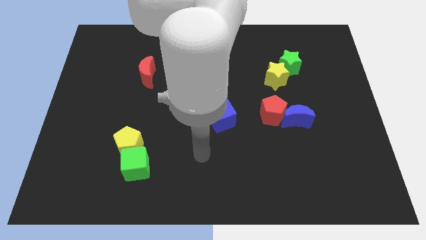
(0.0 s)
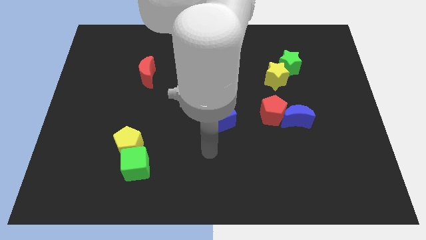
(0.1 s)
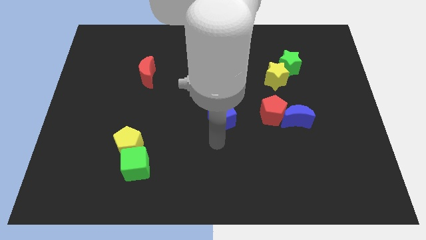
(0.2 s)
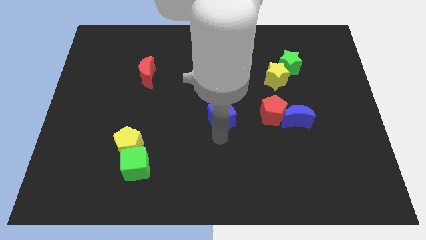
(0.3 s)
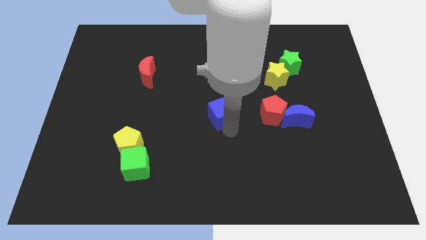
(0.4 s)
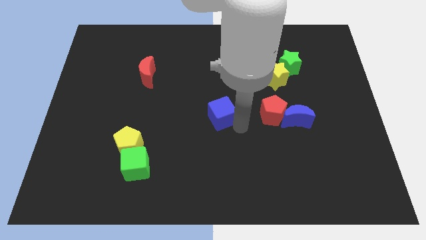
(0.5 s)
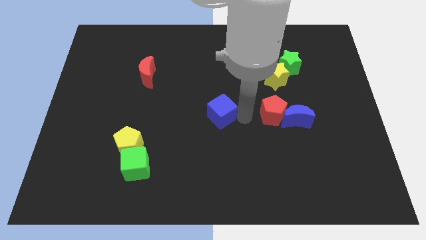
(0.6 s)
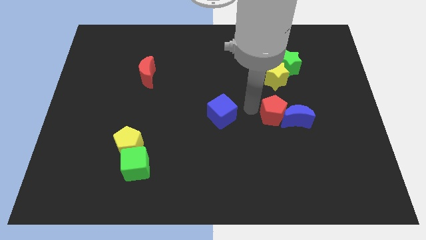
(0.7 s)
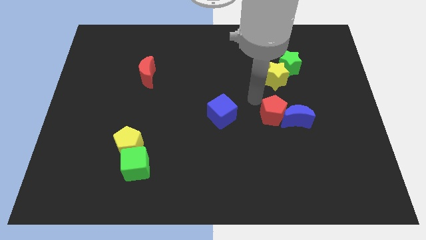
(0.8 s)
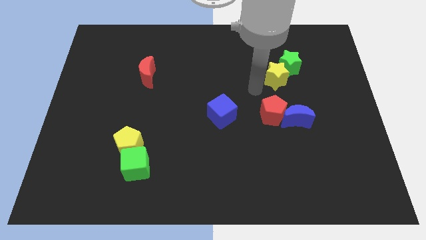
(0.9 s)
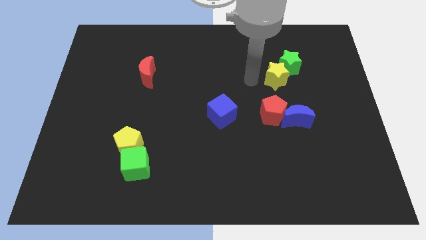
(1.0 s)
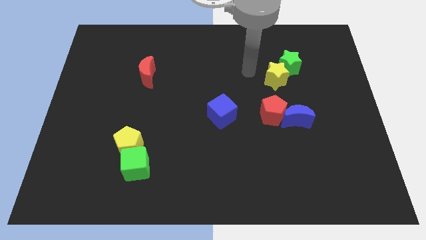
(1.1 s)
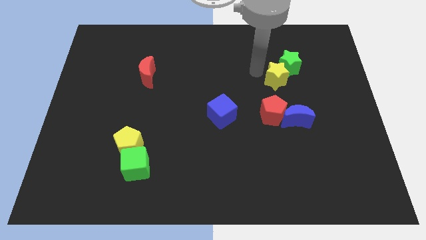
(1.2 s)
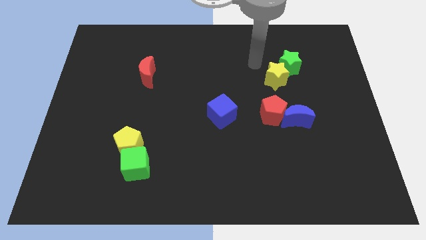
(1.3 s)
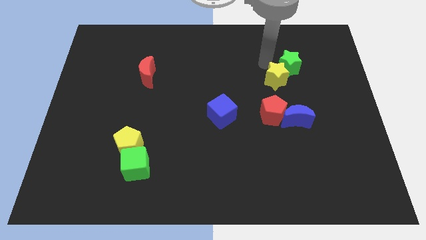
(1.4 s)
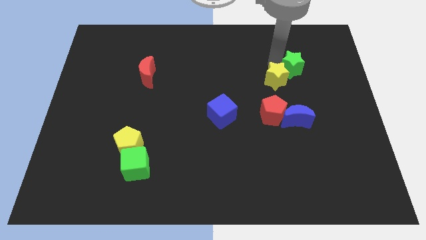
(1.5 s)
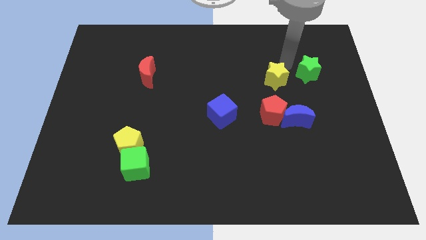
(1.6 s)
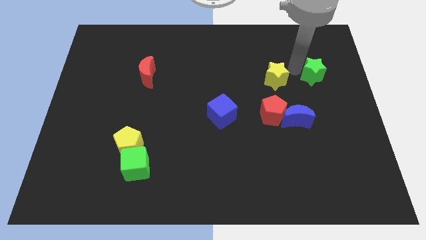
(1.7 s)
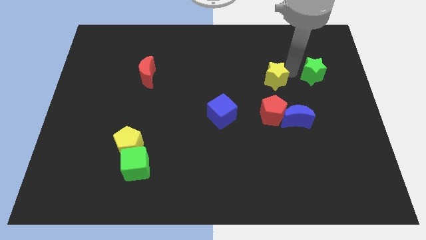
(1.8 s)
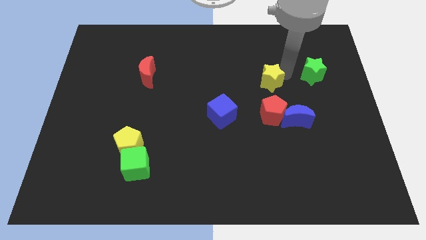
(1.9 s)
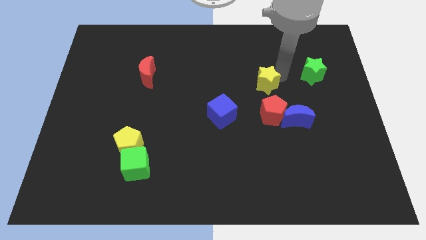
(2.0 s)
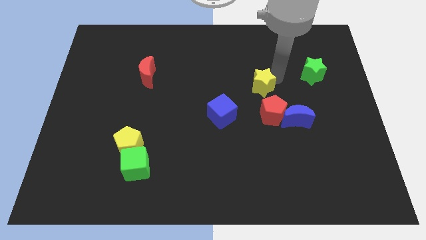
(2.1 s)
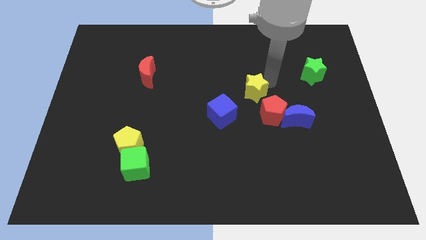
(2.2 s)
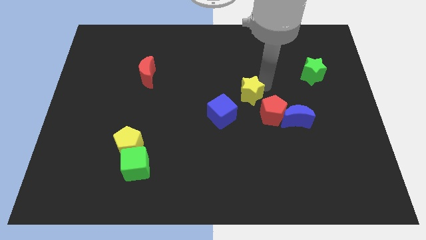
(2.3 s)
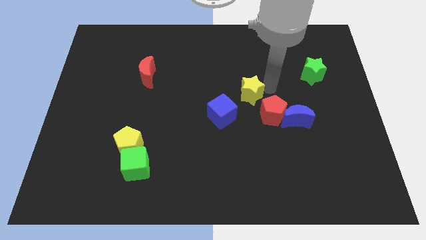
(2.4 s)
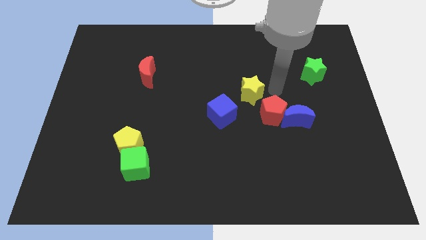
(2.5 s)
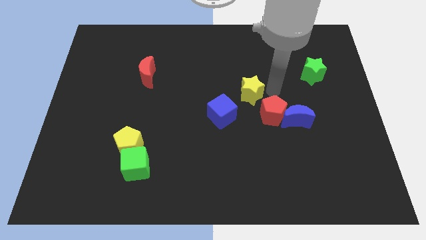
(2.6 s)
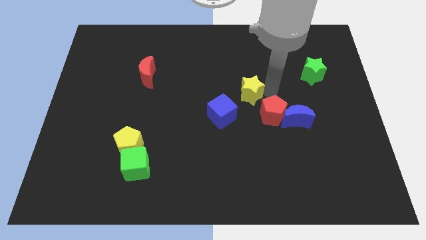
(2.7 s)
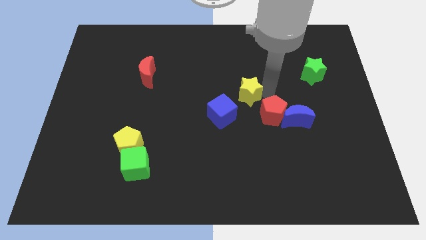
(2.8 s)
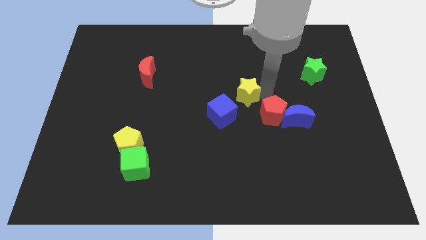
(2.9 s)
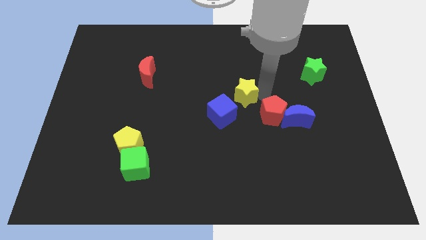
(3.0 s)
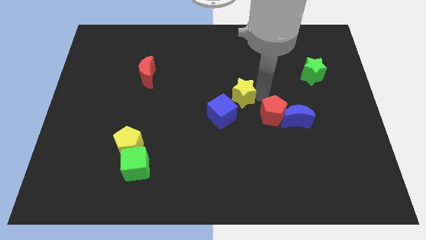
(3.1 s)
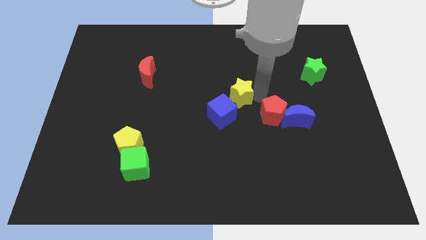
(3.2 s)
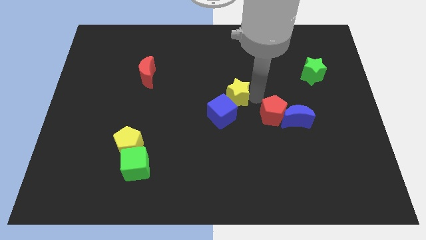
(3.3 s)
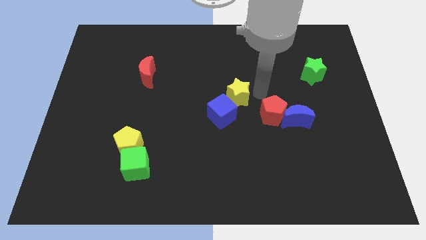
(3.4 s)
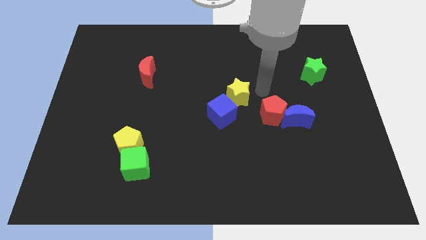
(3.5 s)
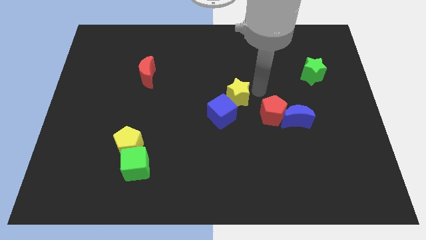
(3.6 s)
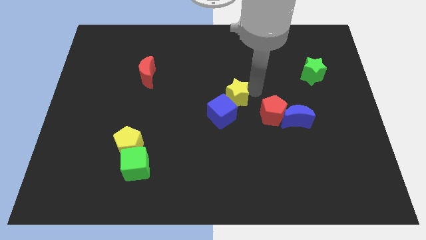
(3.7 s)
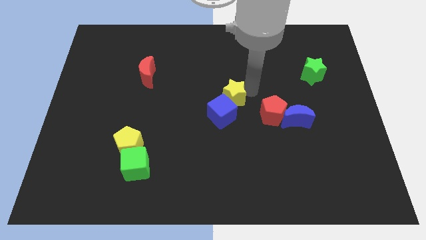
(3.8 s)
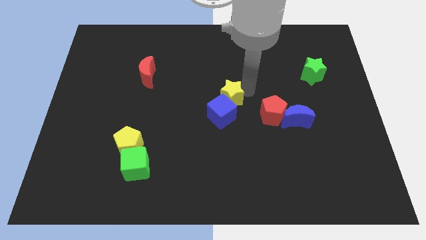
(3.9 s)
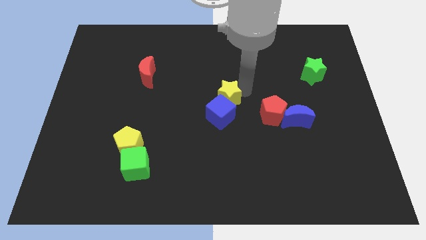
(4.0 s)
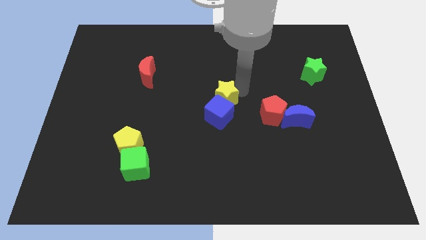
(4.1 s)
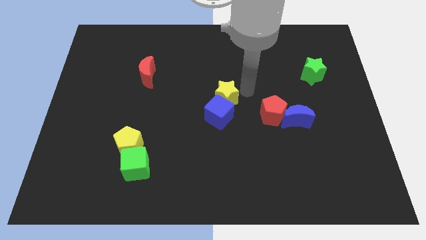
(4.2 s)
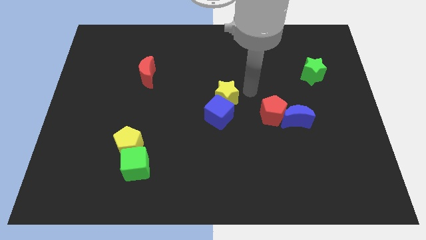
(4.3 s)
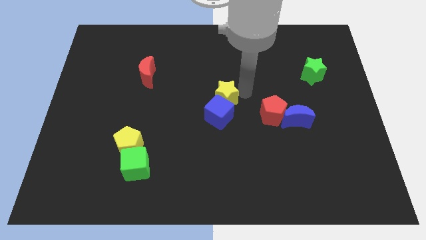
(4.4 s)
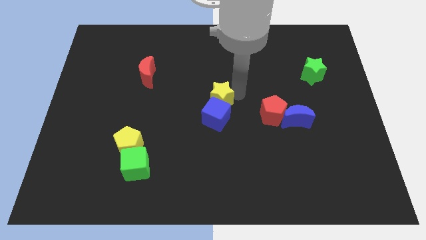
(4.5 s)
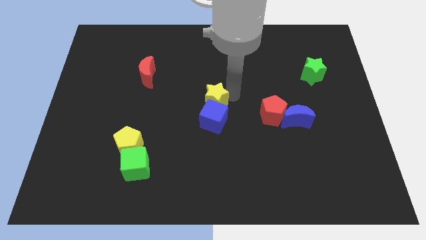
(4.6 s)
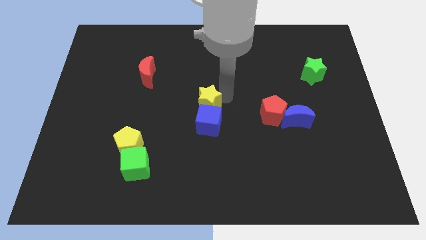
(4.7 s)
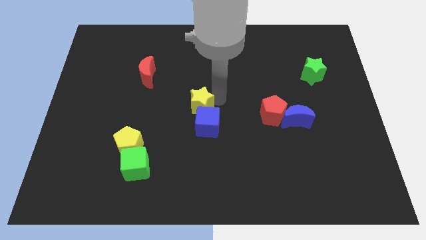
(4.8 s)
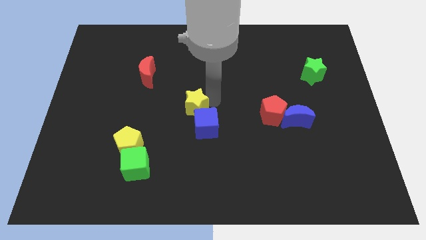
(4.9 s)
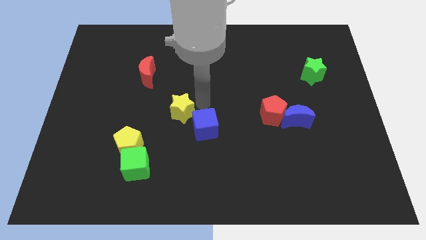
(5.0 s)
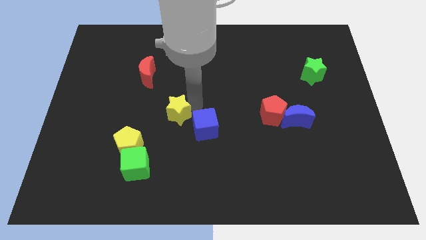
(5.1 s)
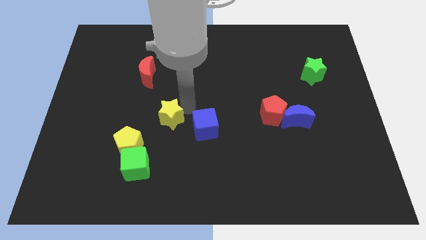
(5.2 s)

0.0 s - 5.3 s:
move the yellow star to the top right of the yellow pentagon

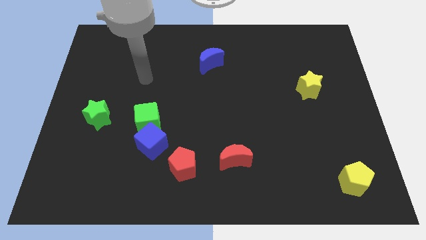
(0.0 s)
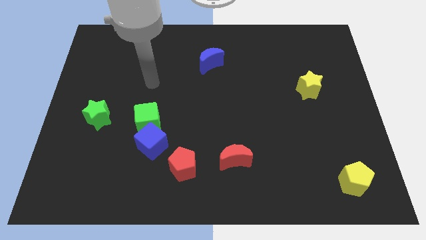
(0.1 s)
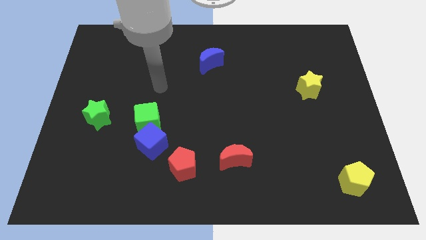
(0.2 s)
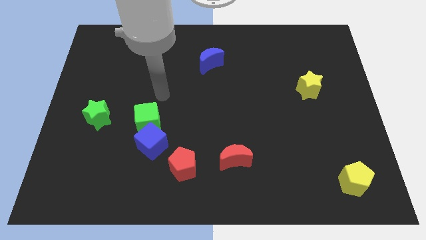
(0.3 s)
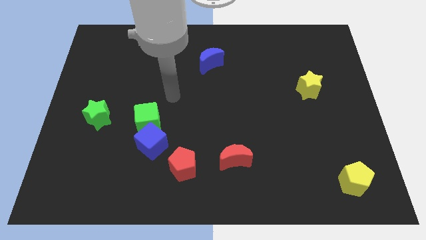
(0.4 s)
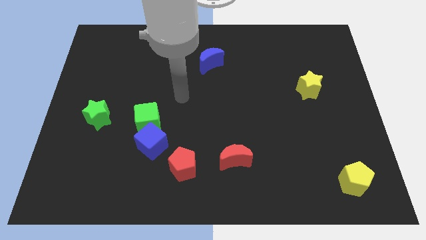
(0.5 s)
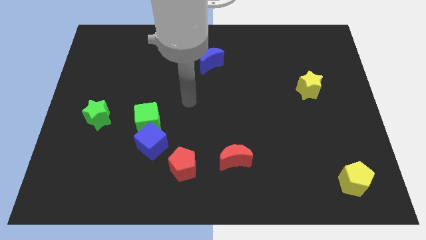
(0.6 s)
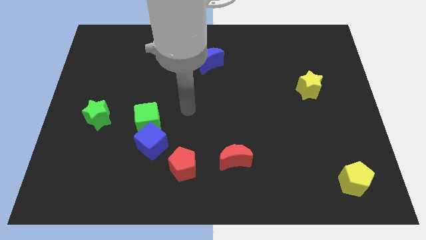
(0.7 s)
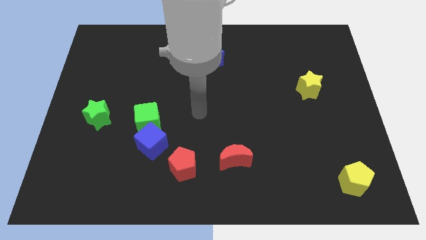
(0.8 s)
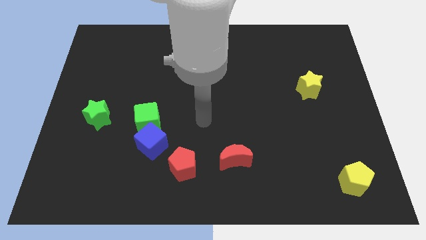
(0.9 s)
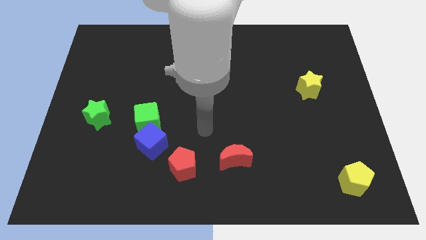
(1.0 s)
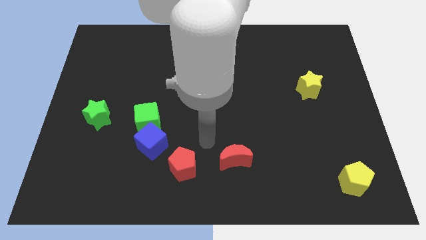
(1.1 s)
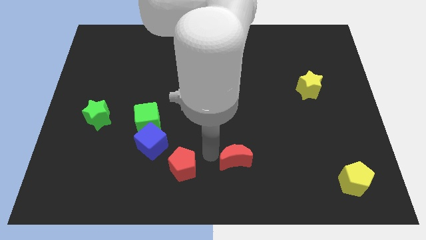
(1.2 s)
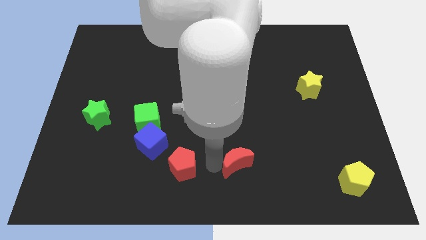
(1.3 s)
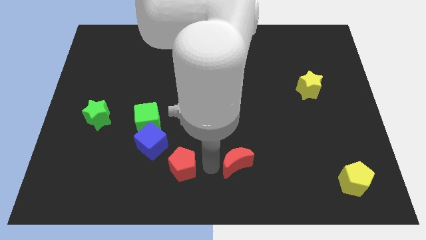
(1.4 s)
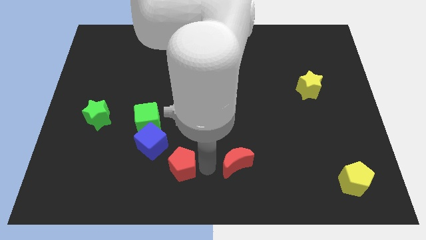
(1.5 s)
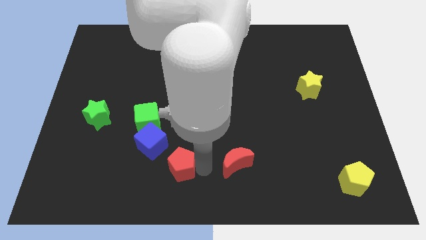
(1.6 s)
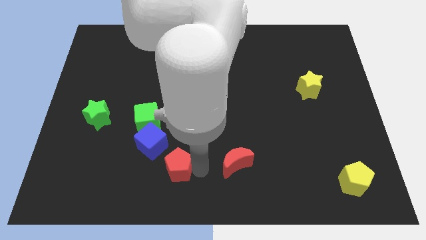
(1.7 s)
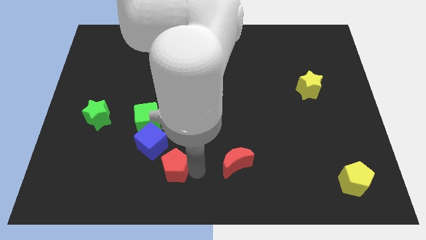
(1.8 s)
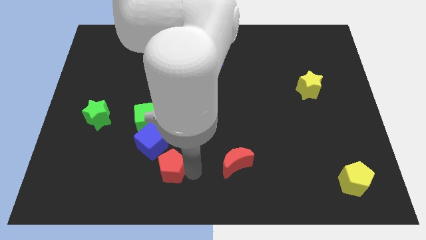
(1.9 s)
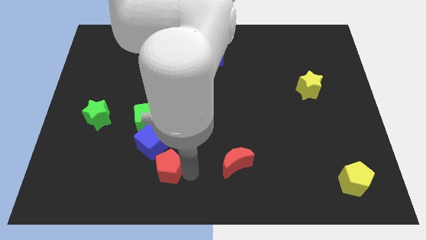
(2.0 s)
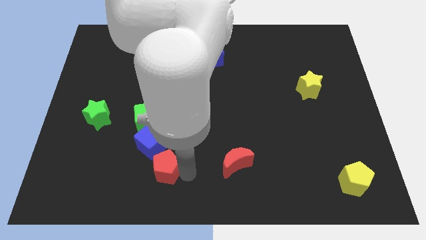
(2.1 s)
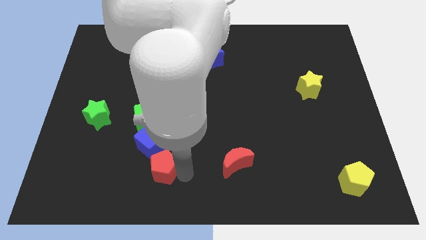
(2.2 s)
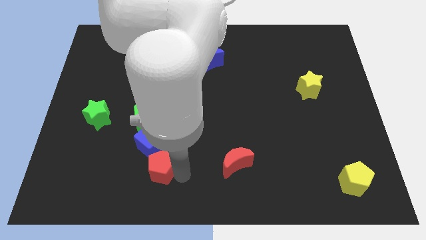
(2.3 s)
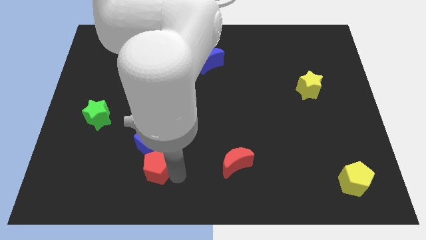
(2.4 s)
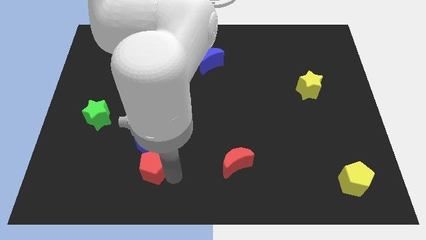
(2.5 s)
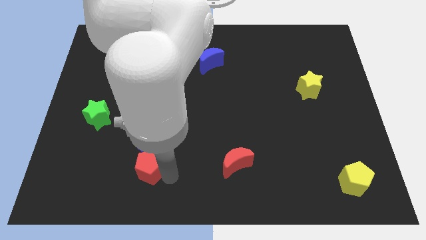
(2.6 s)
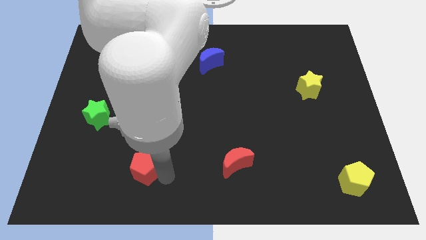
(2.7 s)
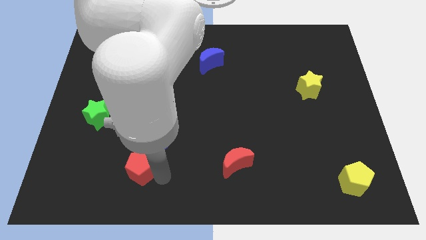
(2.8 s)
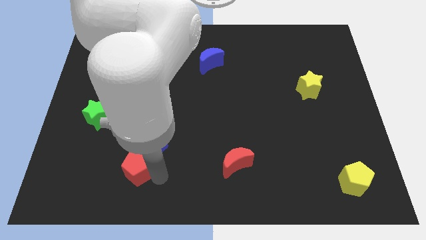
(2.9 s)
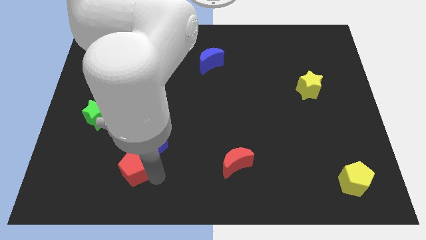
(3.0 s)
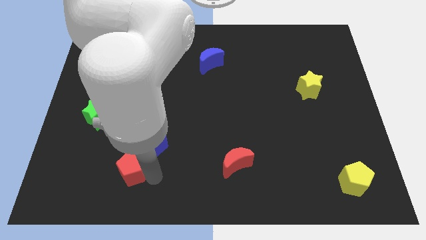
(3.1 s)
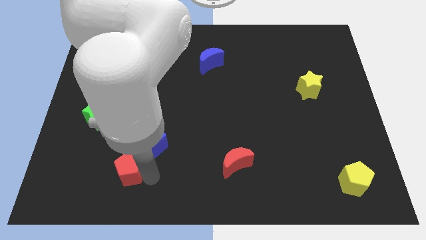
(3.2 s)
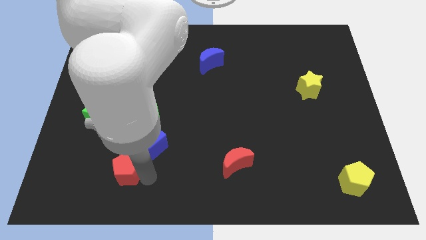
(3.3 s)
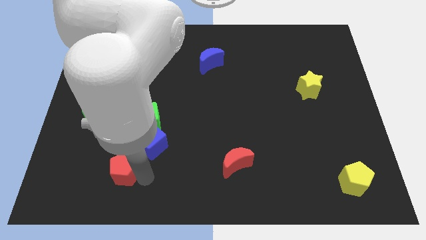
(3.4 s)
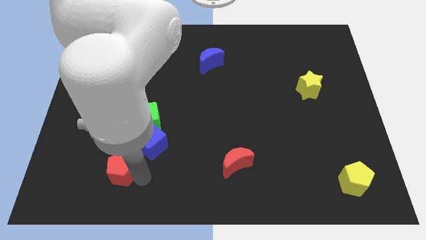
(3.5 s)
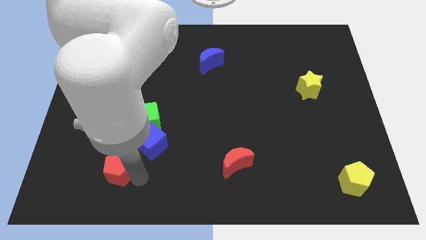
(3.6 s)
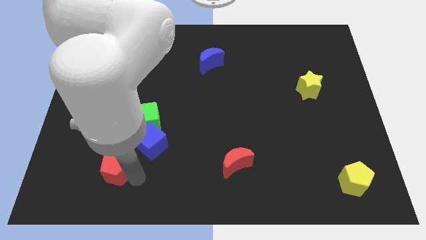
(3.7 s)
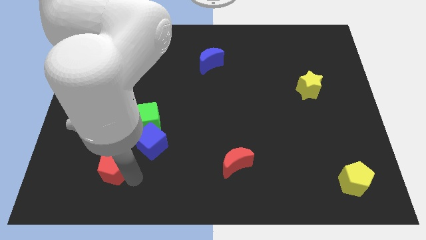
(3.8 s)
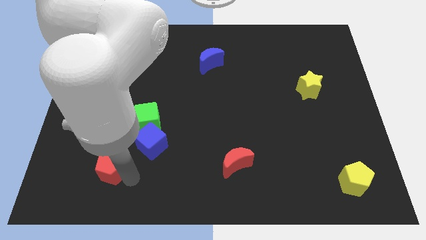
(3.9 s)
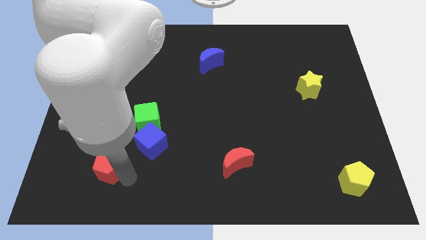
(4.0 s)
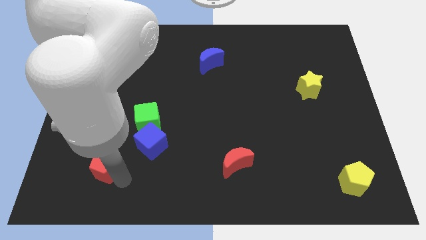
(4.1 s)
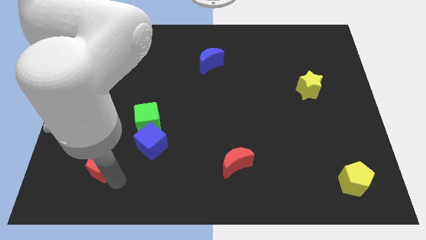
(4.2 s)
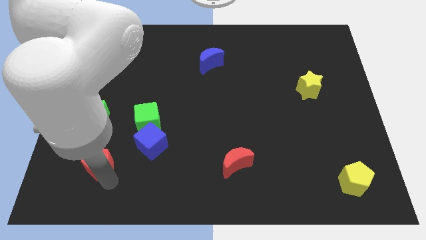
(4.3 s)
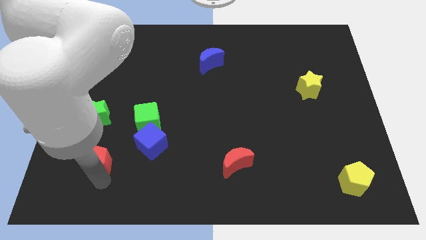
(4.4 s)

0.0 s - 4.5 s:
slide the red pentagon to the left of the blue cube
